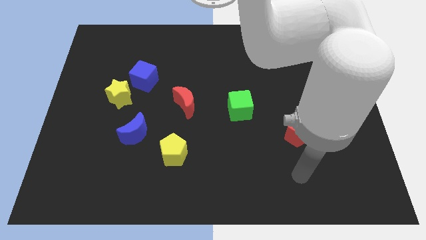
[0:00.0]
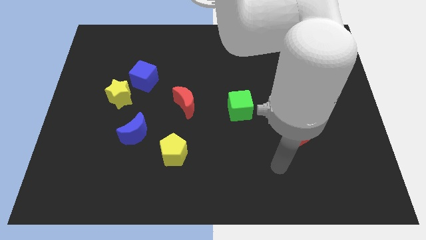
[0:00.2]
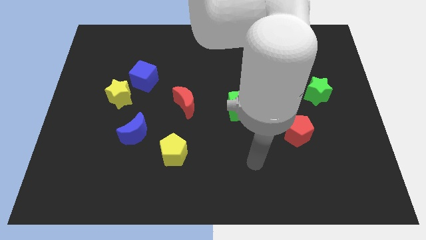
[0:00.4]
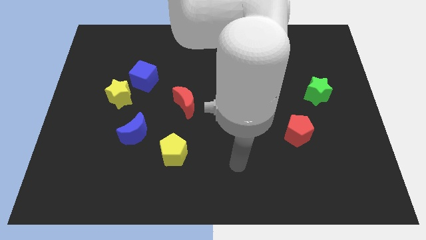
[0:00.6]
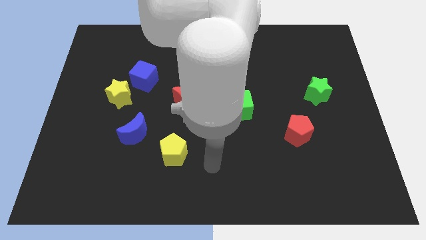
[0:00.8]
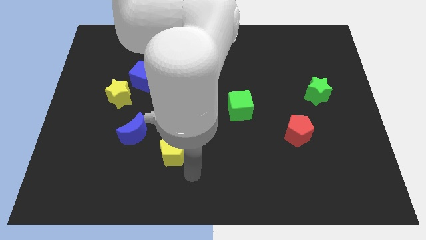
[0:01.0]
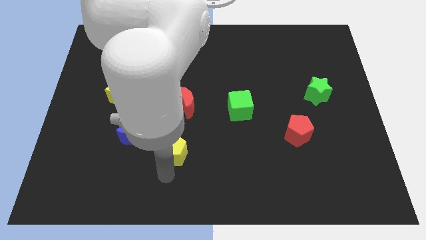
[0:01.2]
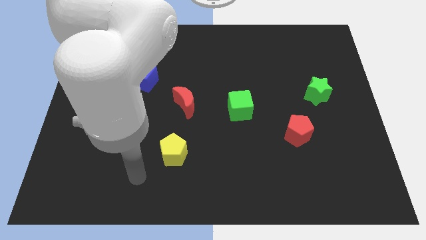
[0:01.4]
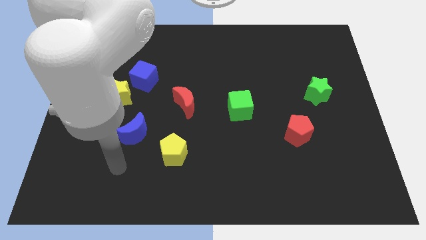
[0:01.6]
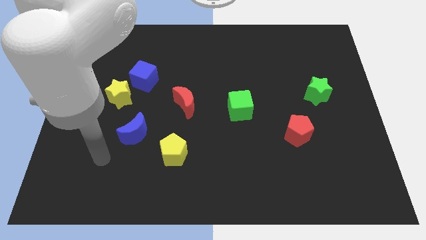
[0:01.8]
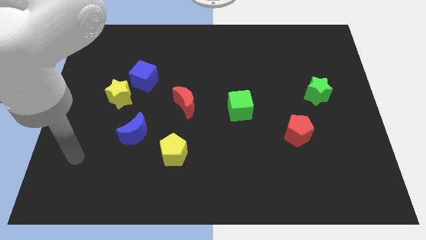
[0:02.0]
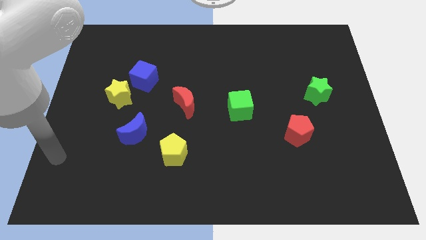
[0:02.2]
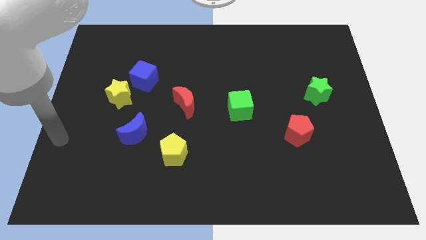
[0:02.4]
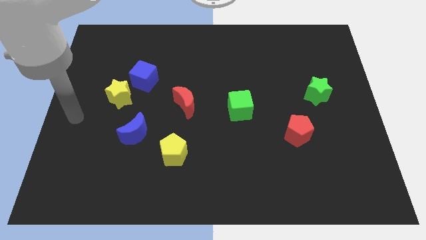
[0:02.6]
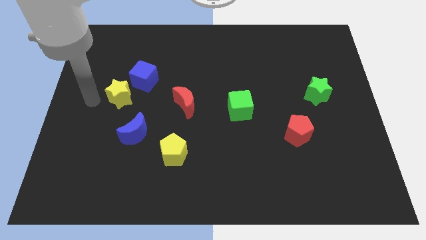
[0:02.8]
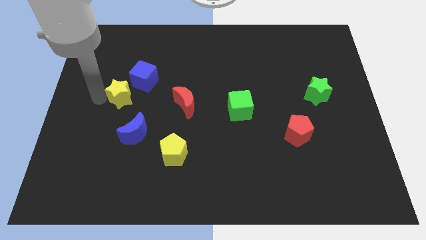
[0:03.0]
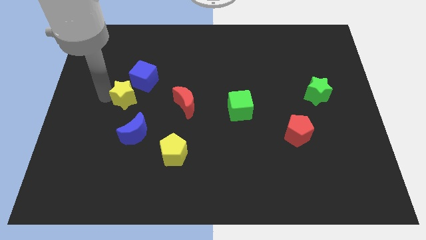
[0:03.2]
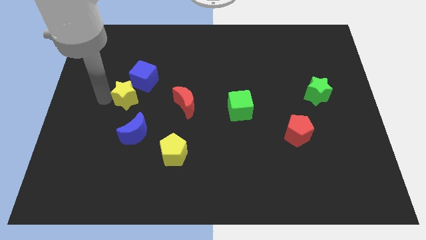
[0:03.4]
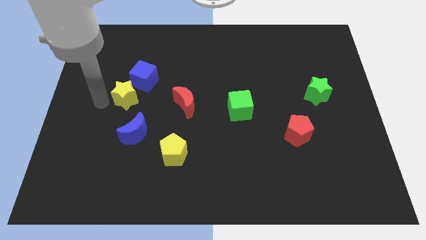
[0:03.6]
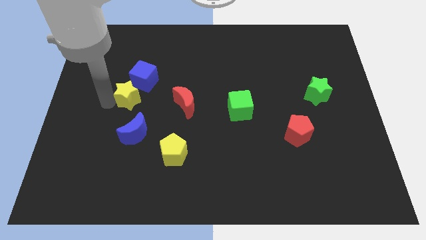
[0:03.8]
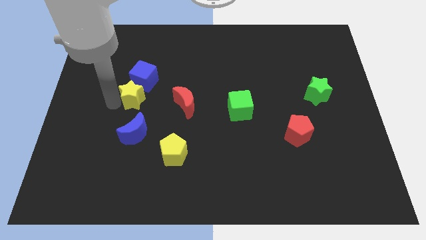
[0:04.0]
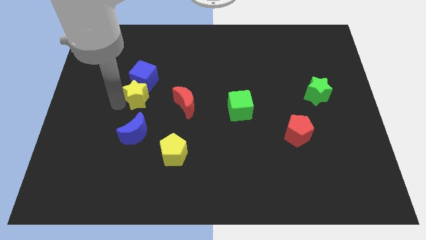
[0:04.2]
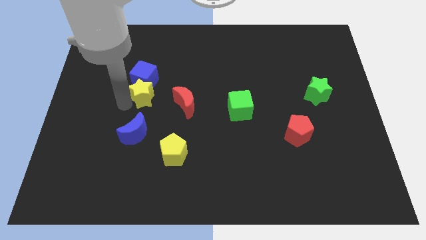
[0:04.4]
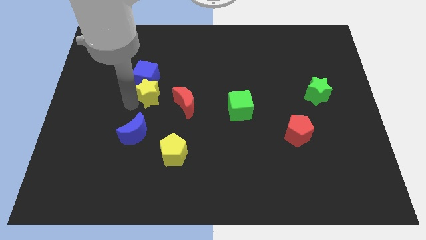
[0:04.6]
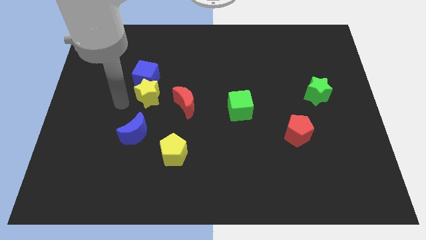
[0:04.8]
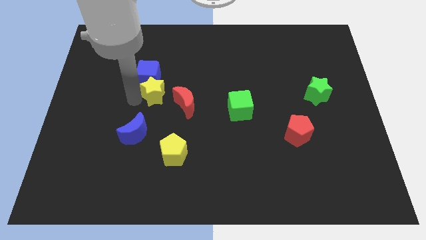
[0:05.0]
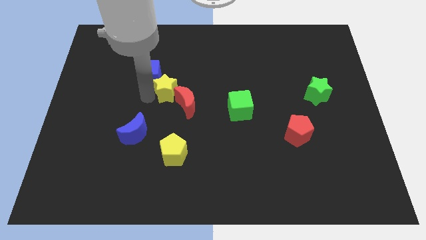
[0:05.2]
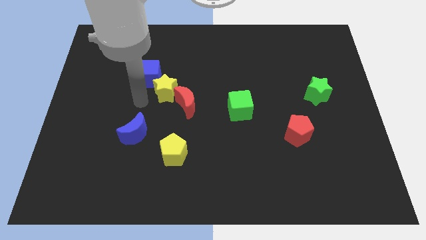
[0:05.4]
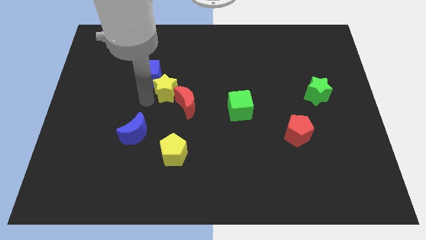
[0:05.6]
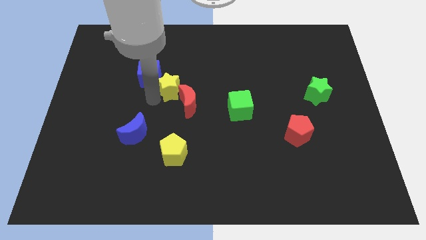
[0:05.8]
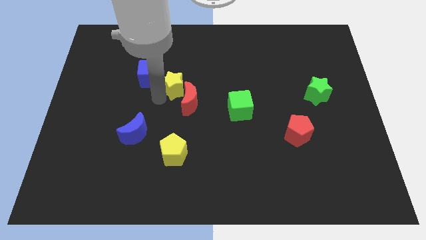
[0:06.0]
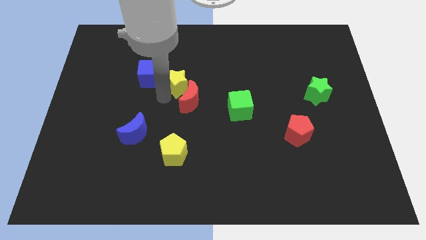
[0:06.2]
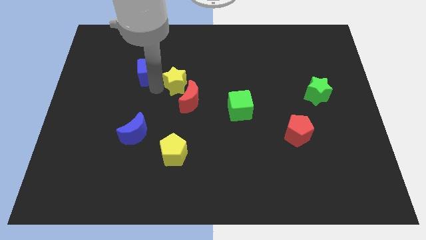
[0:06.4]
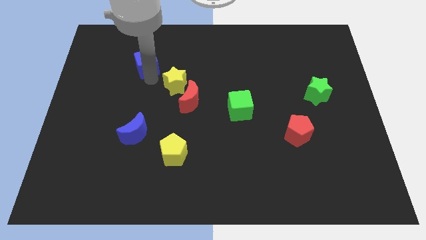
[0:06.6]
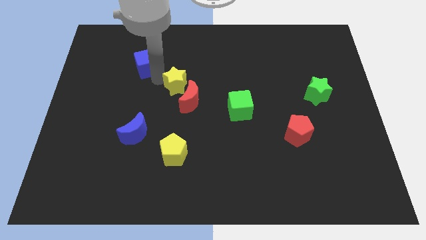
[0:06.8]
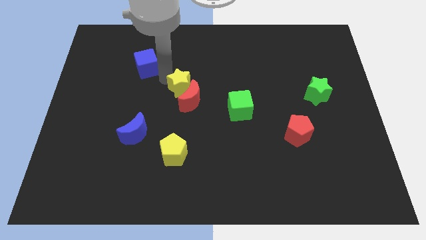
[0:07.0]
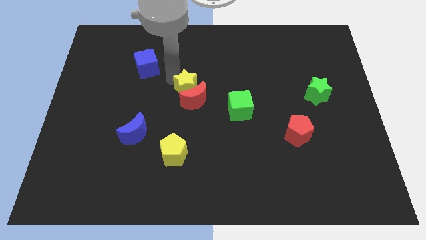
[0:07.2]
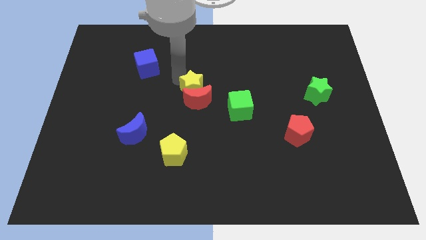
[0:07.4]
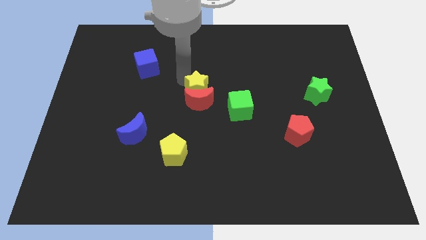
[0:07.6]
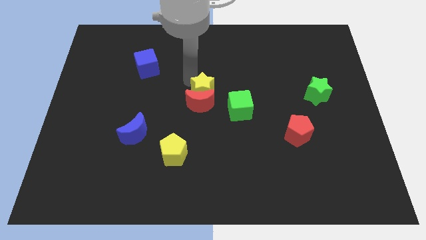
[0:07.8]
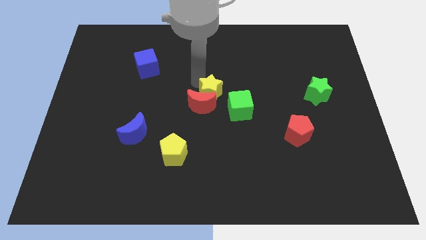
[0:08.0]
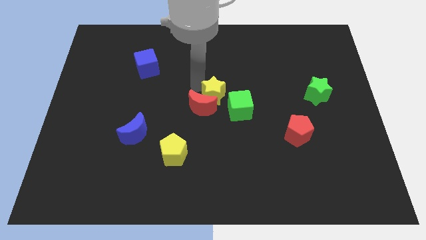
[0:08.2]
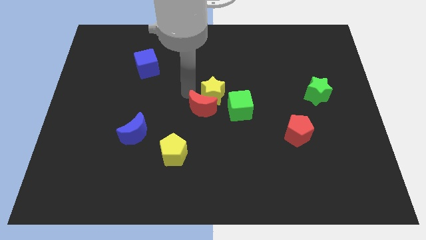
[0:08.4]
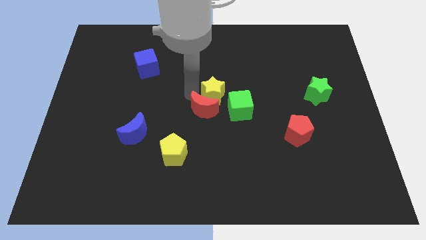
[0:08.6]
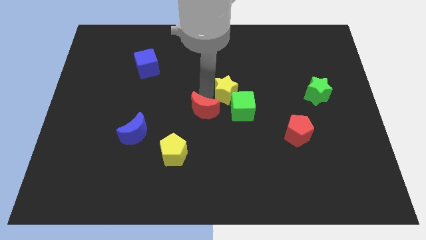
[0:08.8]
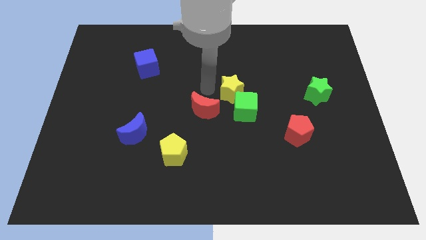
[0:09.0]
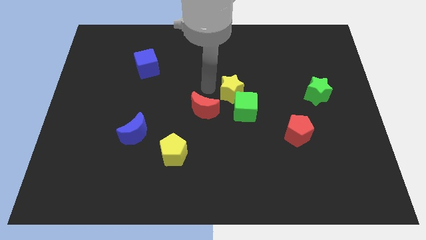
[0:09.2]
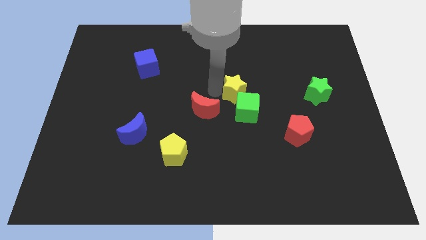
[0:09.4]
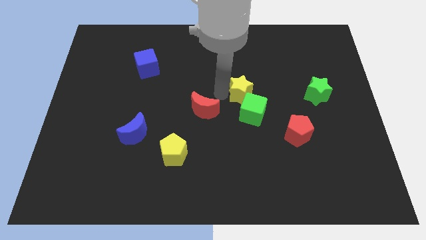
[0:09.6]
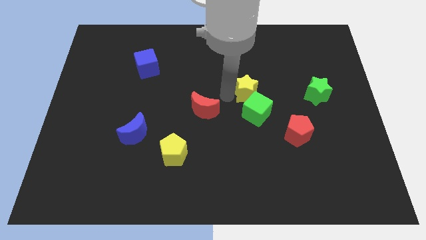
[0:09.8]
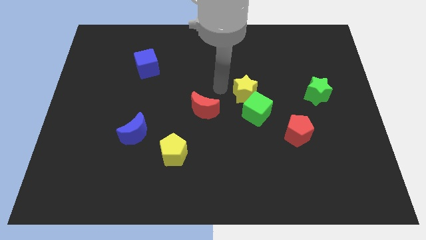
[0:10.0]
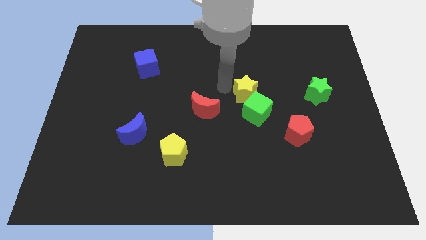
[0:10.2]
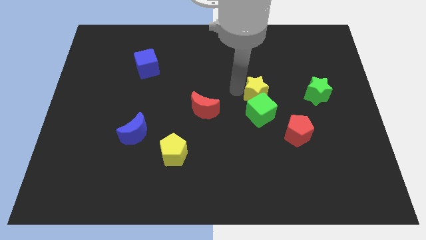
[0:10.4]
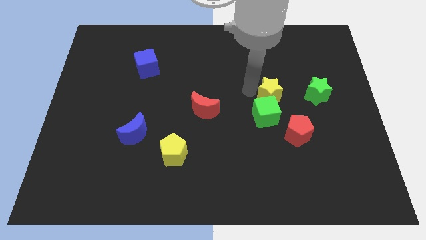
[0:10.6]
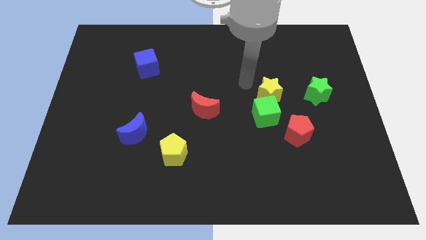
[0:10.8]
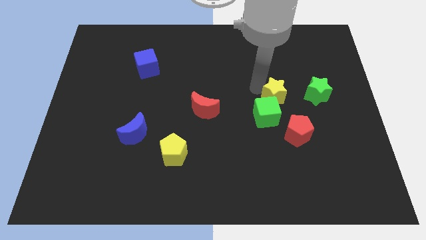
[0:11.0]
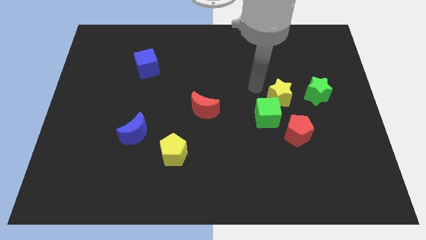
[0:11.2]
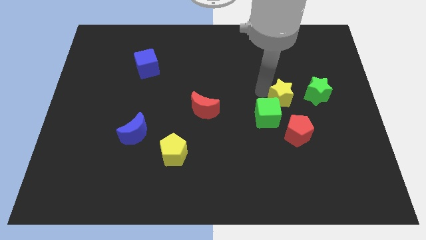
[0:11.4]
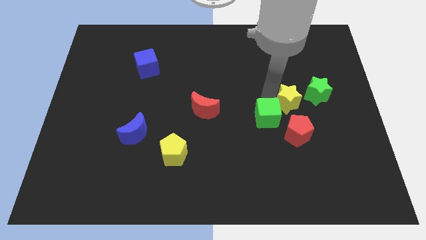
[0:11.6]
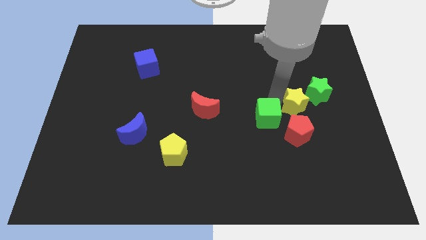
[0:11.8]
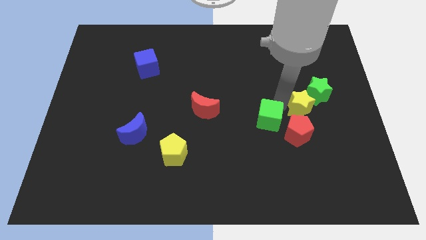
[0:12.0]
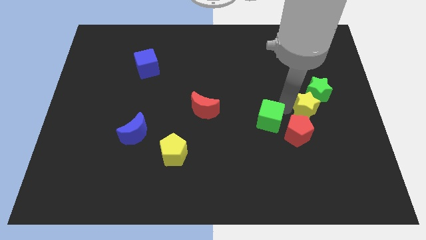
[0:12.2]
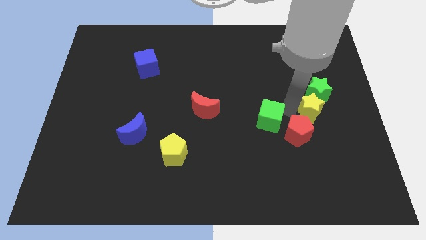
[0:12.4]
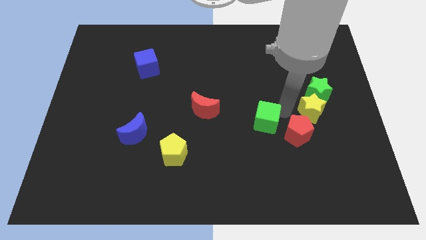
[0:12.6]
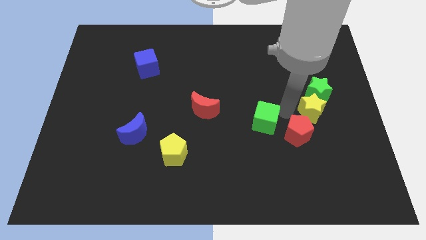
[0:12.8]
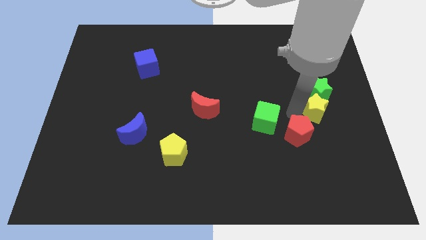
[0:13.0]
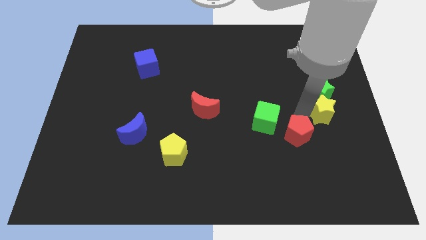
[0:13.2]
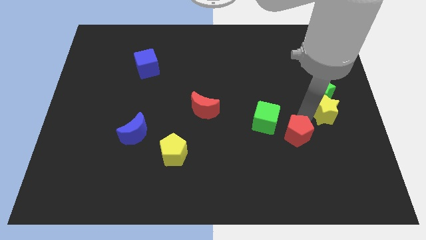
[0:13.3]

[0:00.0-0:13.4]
move the yellow star to the right side
